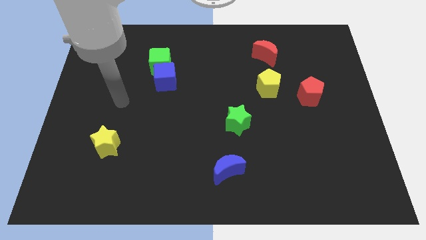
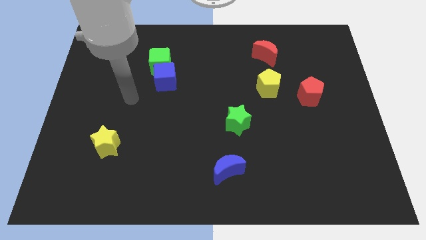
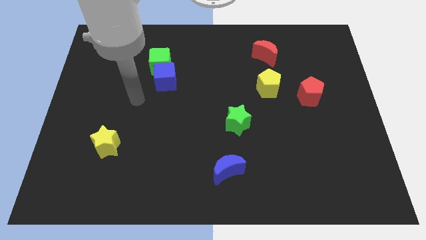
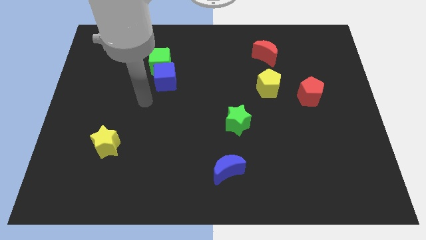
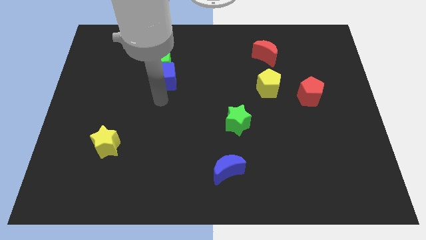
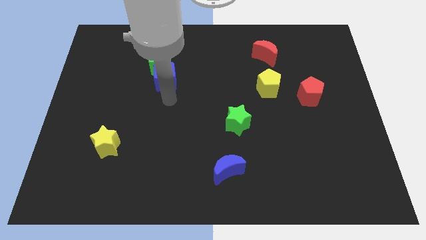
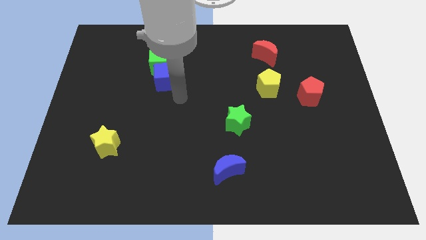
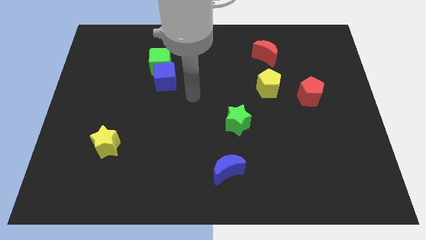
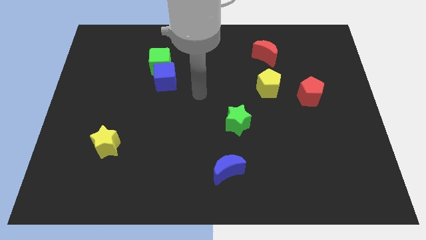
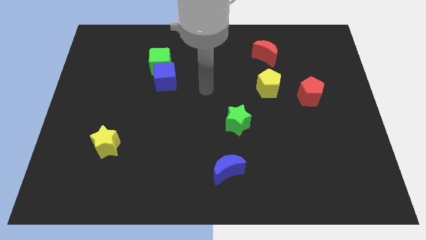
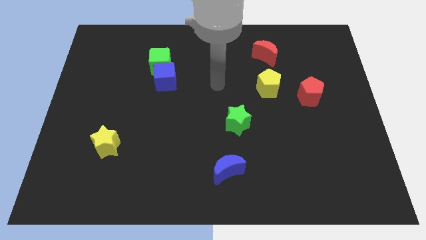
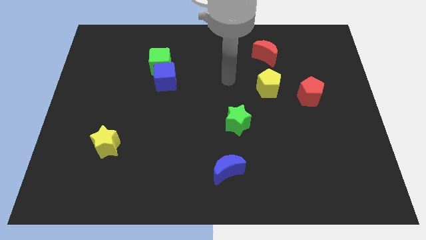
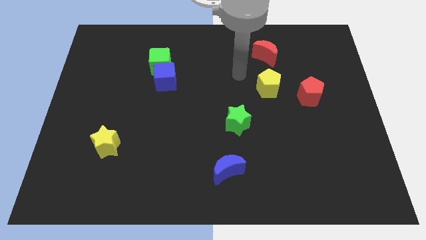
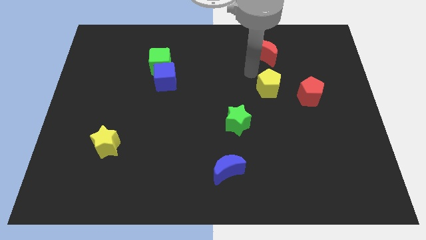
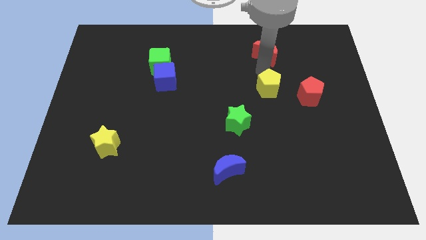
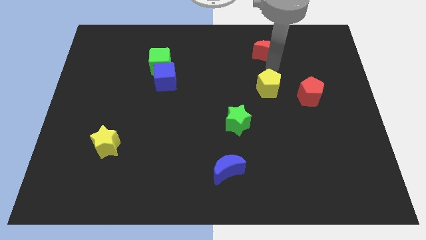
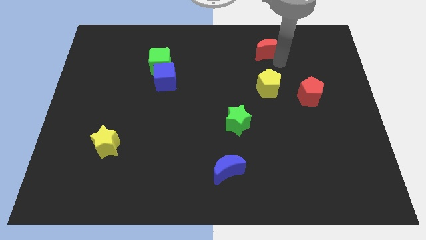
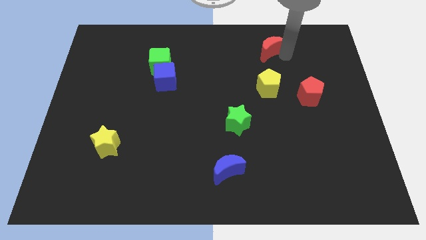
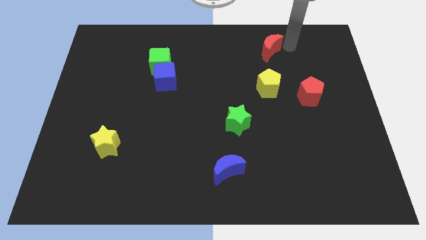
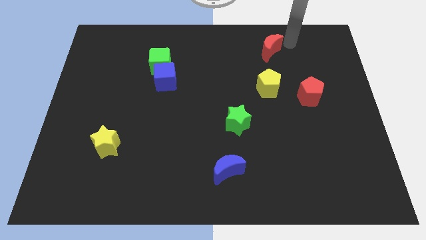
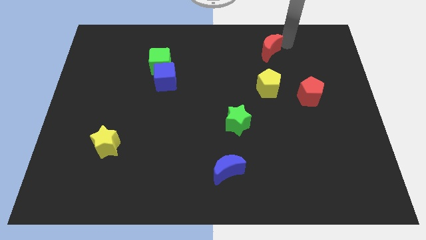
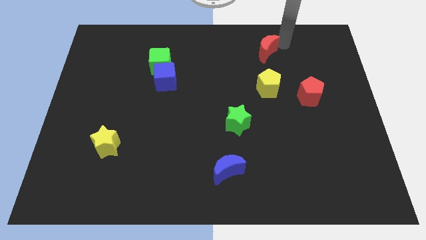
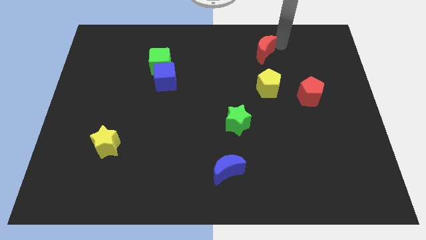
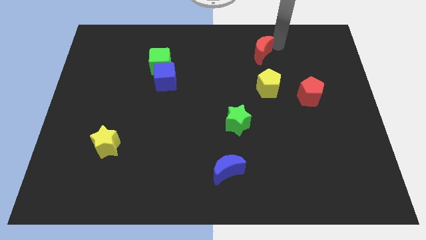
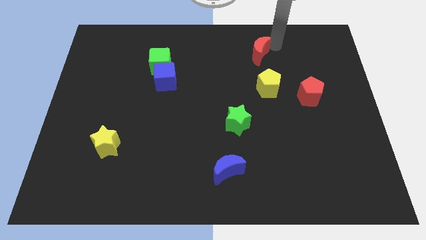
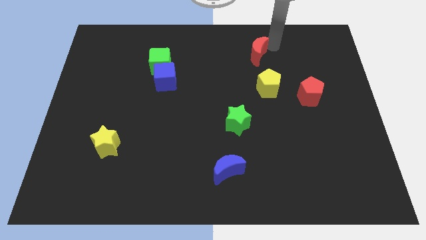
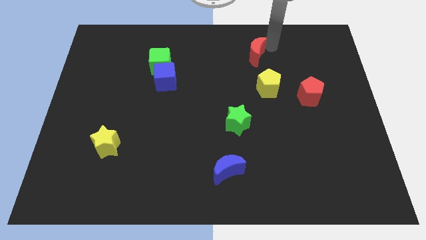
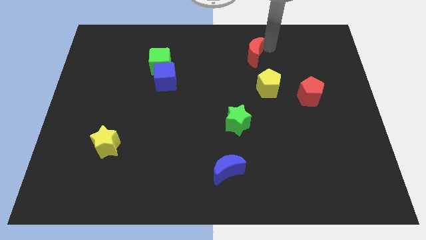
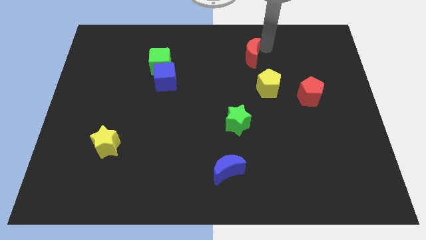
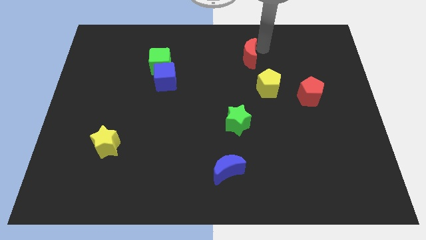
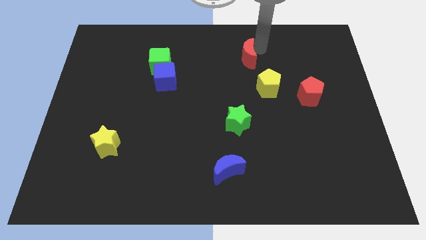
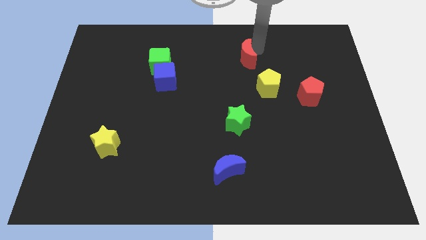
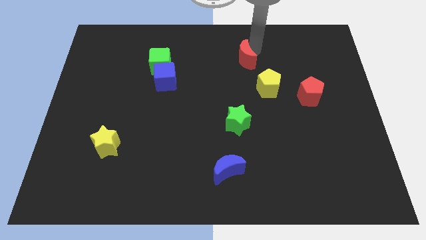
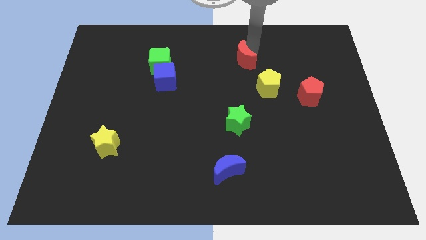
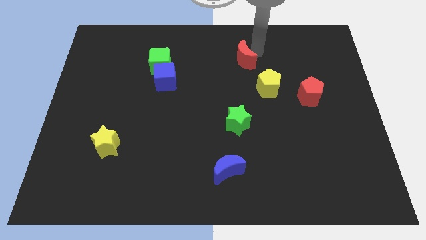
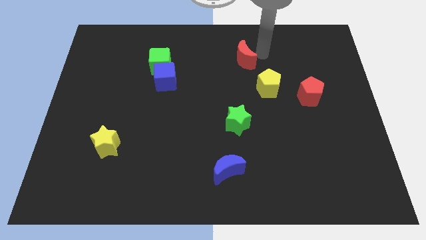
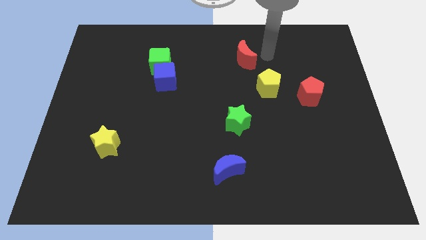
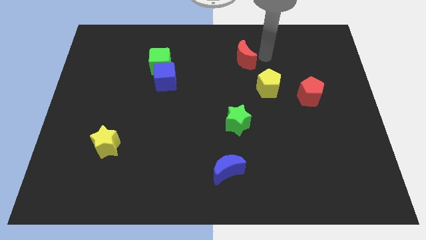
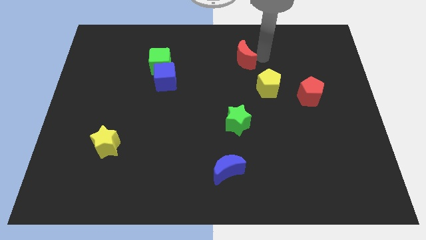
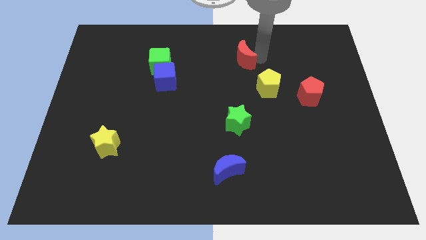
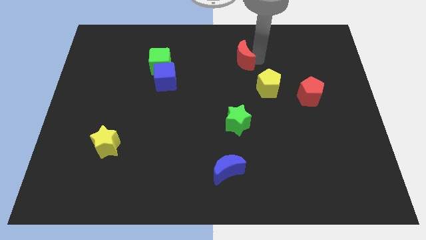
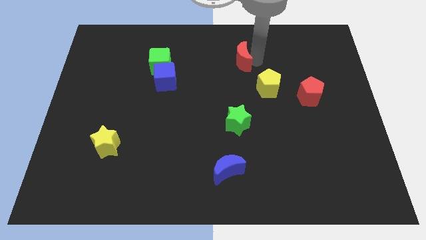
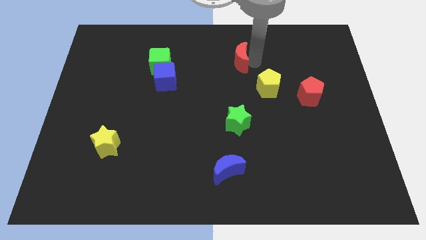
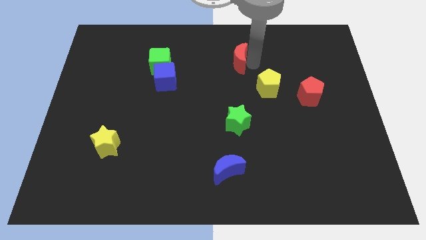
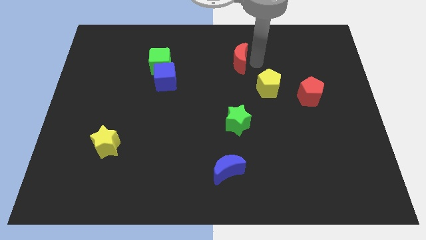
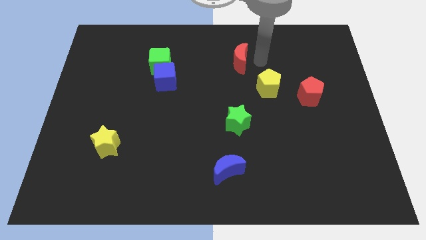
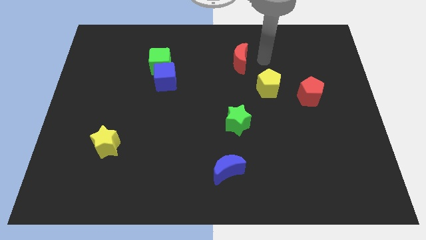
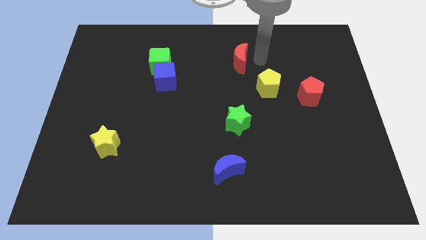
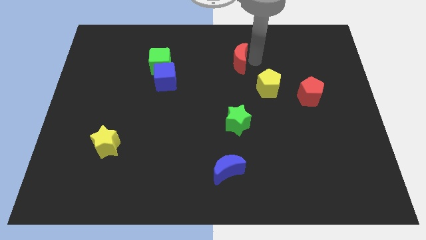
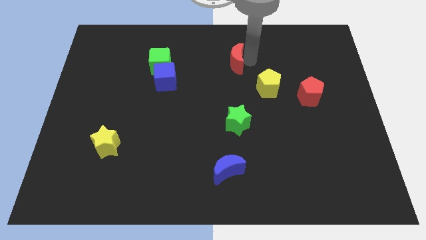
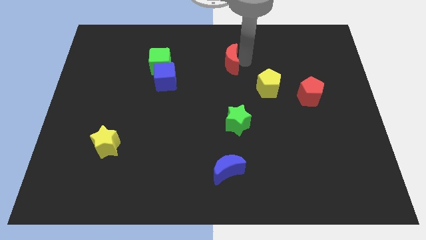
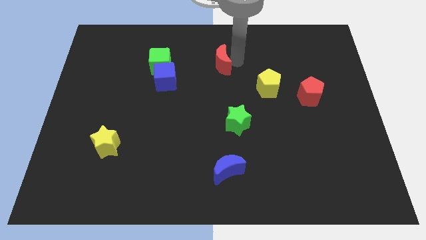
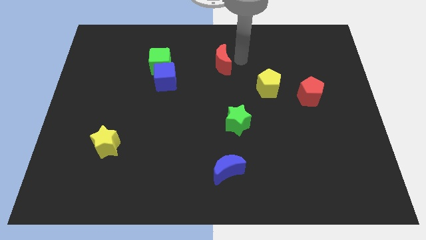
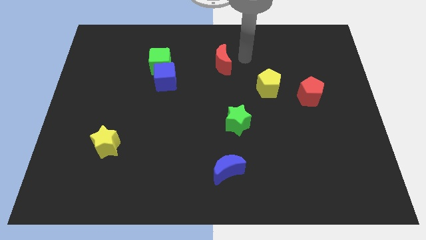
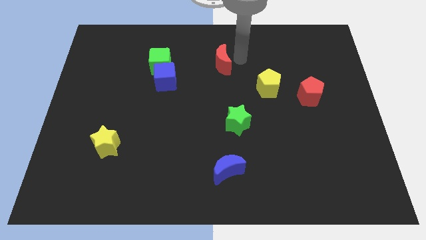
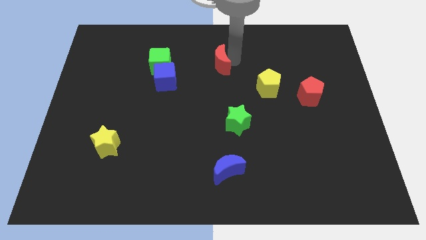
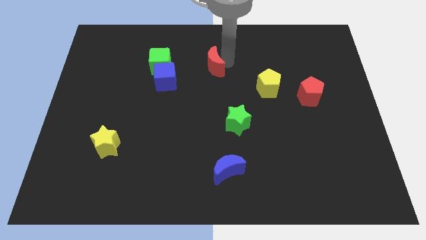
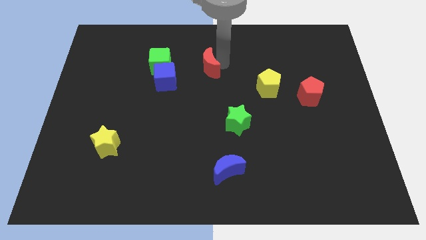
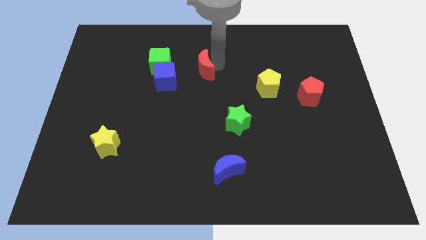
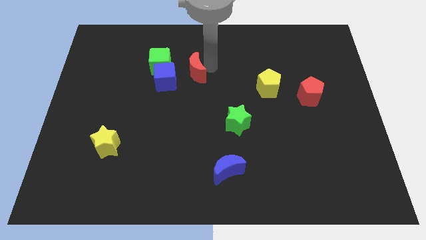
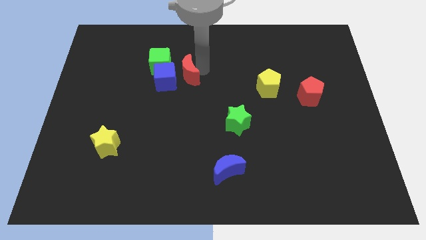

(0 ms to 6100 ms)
move the red moon close to the blue cube
